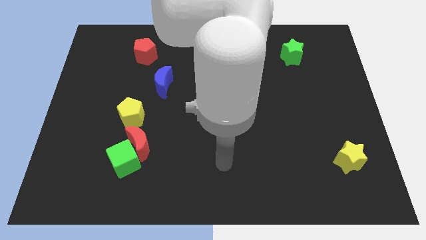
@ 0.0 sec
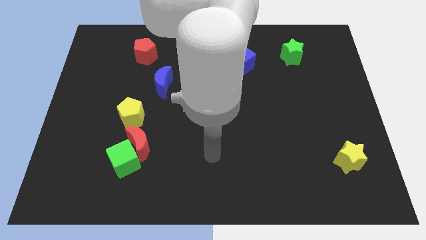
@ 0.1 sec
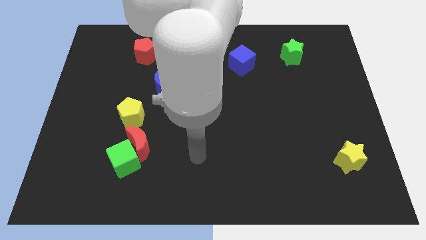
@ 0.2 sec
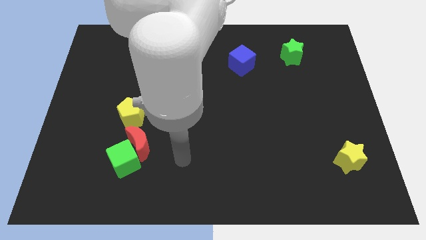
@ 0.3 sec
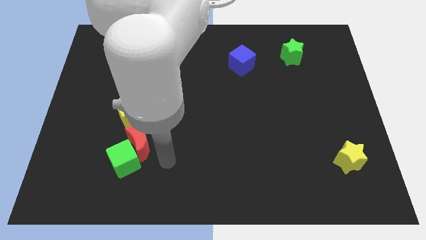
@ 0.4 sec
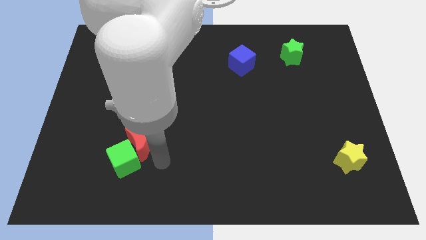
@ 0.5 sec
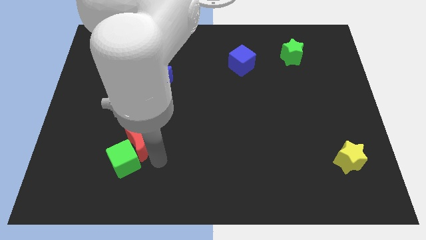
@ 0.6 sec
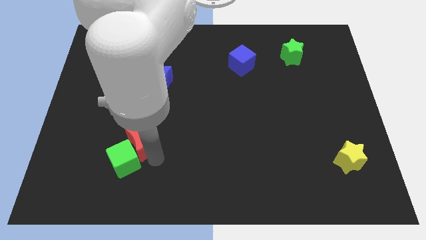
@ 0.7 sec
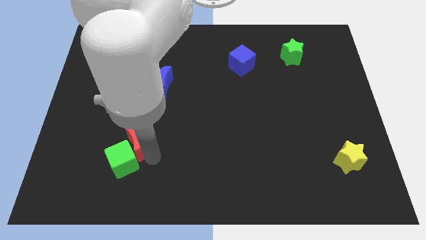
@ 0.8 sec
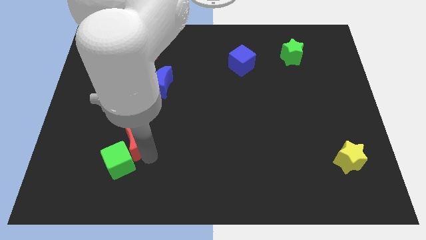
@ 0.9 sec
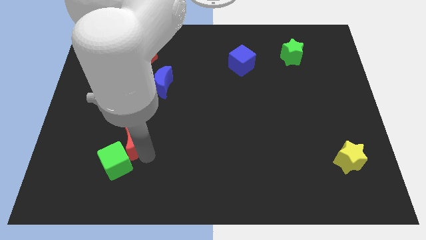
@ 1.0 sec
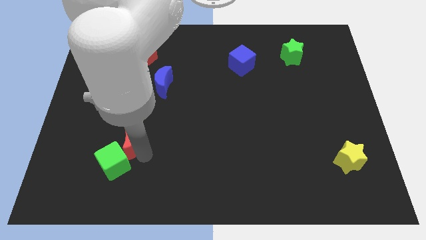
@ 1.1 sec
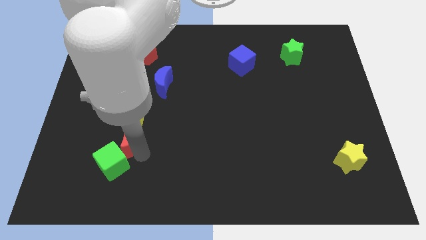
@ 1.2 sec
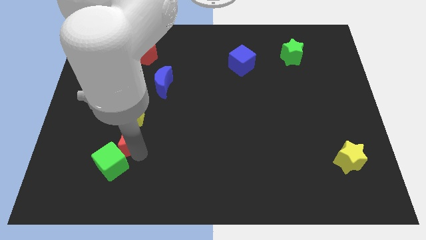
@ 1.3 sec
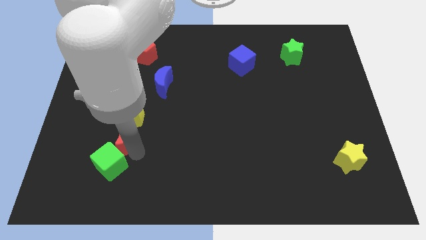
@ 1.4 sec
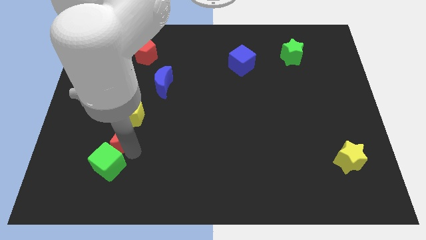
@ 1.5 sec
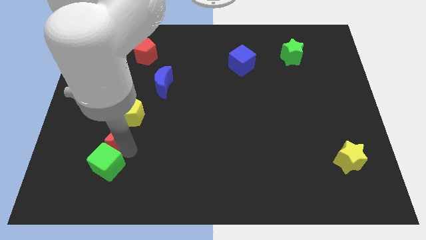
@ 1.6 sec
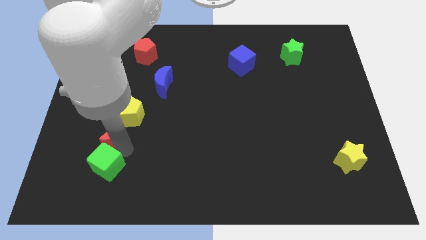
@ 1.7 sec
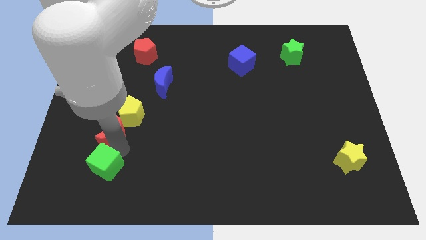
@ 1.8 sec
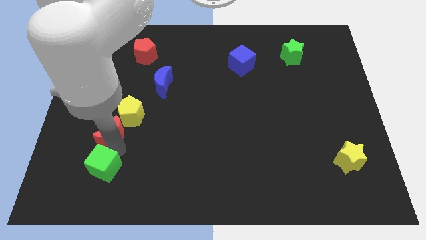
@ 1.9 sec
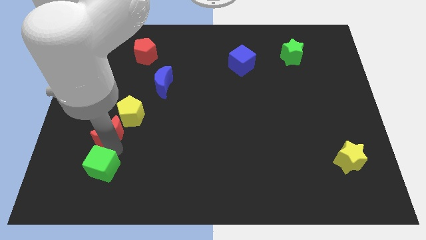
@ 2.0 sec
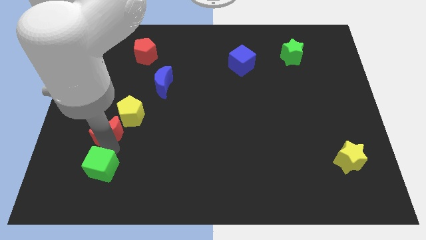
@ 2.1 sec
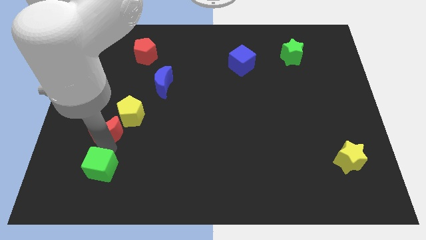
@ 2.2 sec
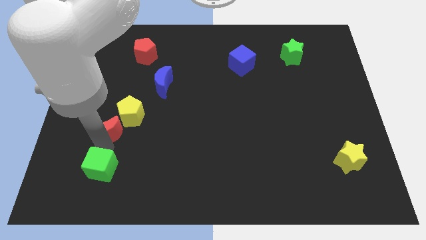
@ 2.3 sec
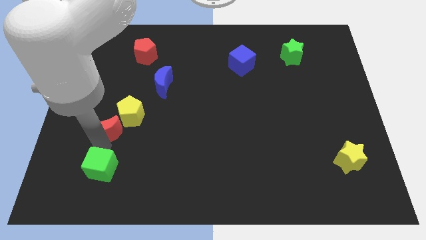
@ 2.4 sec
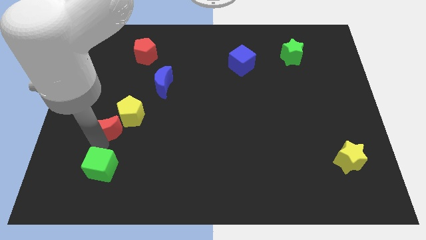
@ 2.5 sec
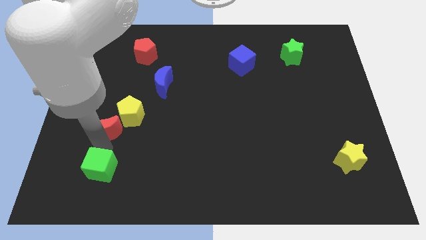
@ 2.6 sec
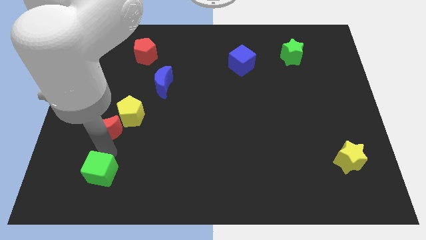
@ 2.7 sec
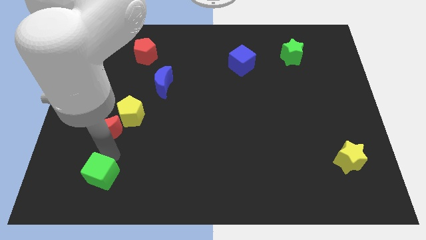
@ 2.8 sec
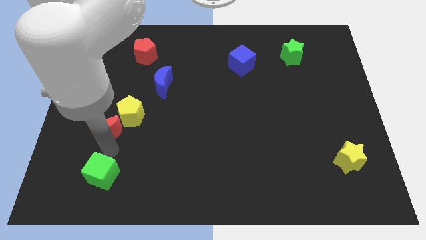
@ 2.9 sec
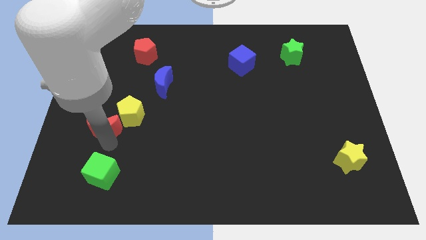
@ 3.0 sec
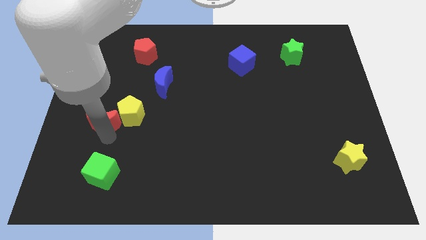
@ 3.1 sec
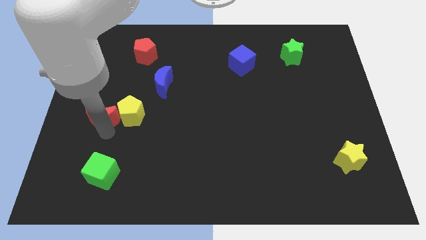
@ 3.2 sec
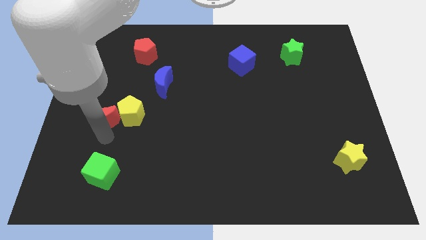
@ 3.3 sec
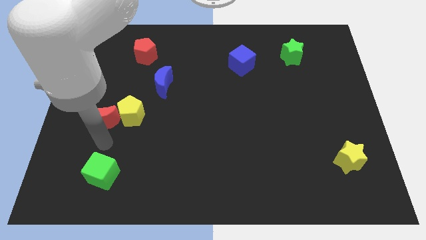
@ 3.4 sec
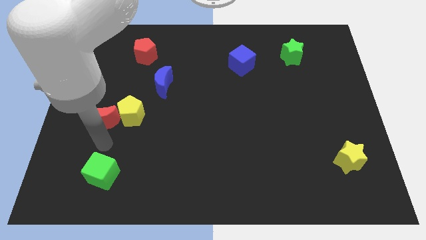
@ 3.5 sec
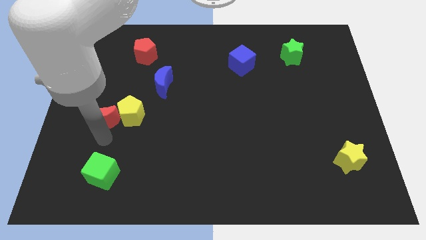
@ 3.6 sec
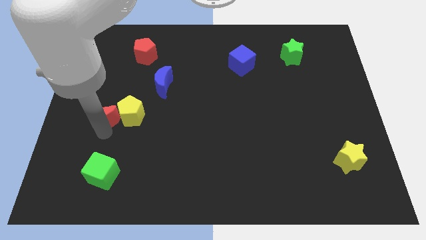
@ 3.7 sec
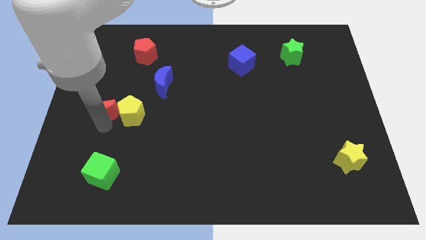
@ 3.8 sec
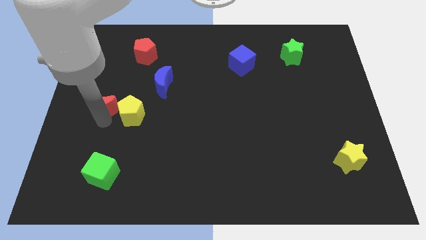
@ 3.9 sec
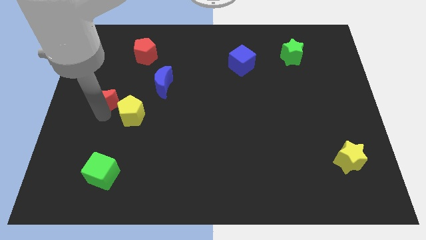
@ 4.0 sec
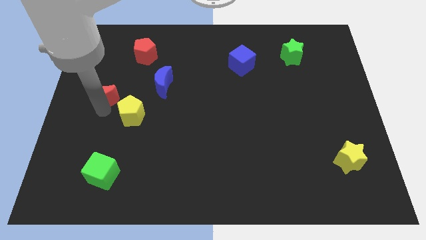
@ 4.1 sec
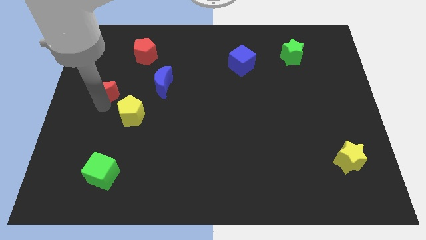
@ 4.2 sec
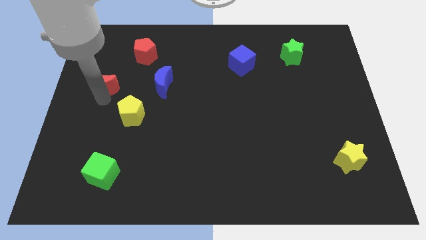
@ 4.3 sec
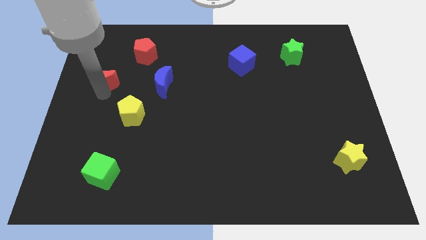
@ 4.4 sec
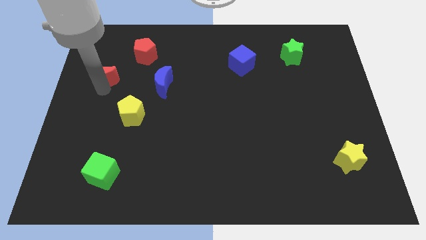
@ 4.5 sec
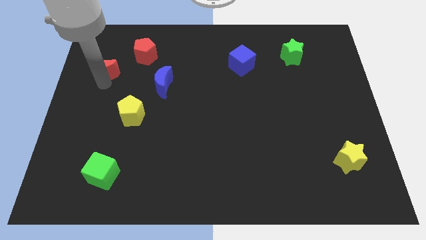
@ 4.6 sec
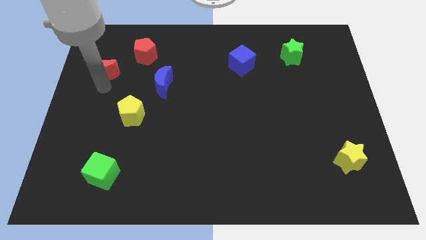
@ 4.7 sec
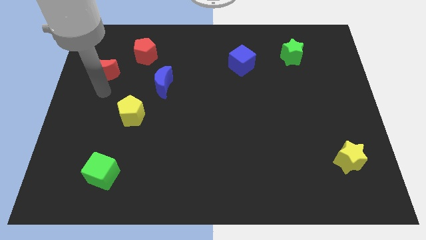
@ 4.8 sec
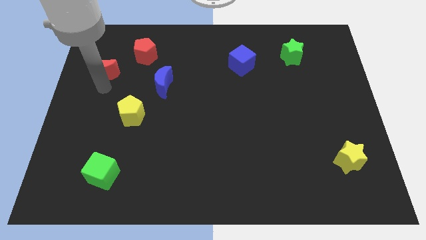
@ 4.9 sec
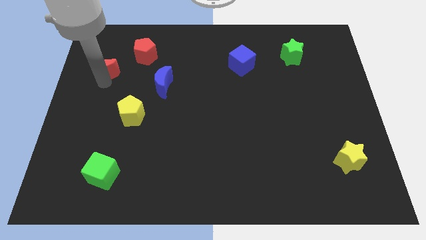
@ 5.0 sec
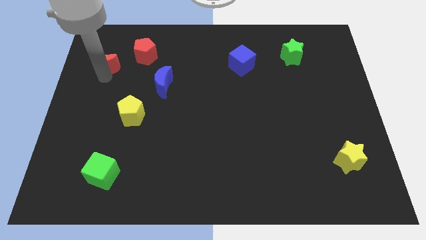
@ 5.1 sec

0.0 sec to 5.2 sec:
move the red moon just left of the red pentagon

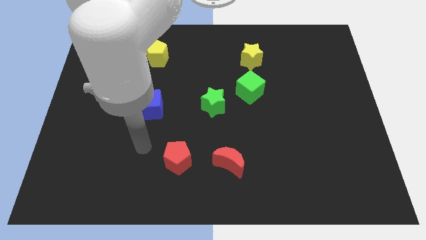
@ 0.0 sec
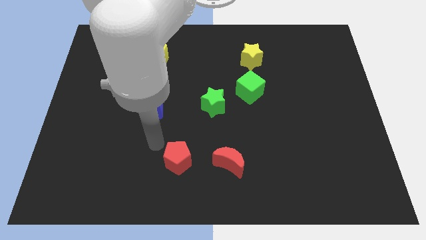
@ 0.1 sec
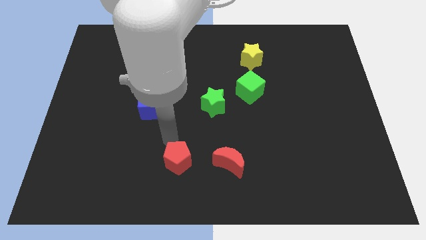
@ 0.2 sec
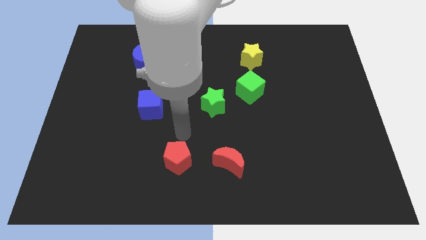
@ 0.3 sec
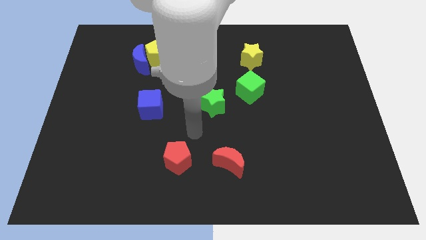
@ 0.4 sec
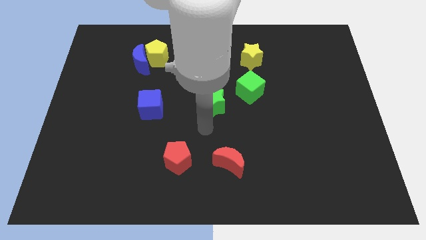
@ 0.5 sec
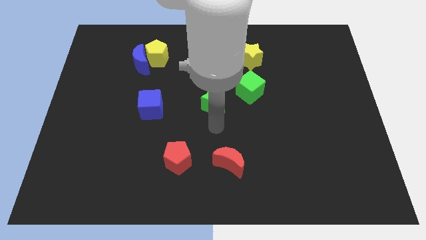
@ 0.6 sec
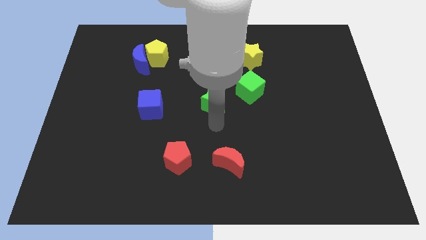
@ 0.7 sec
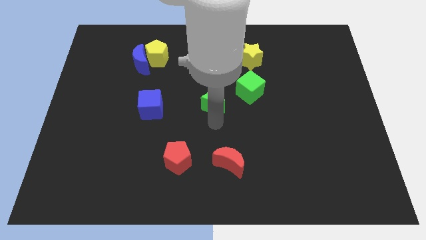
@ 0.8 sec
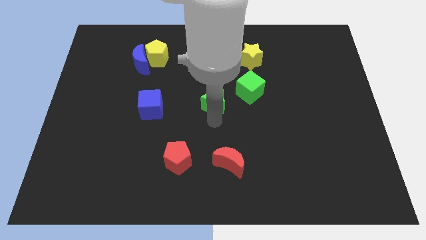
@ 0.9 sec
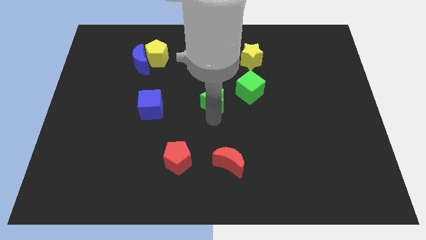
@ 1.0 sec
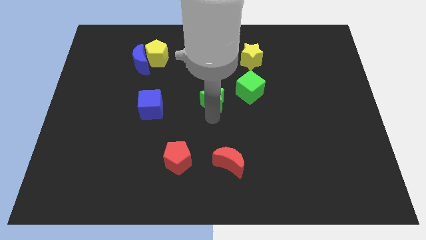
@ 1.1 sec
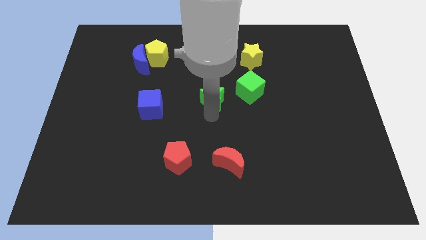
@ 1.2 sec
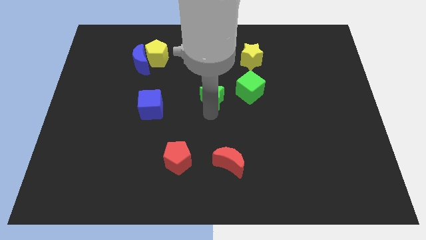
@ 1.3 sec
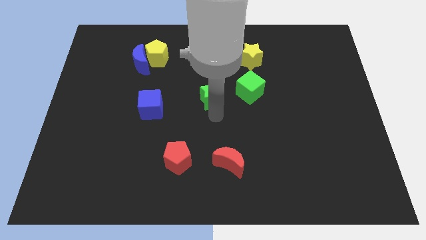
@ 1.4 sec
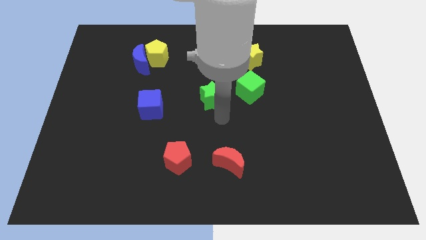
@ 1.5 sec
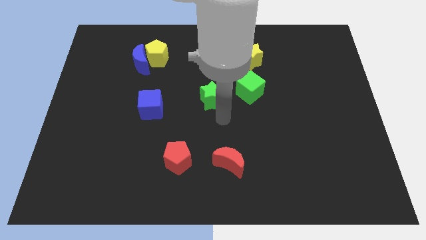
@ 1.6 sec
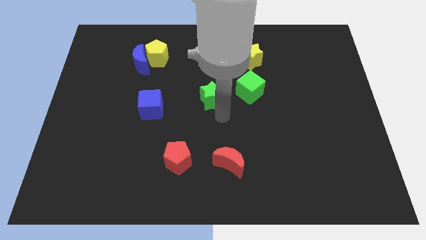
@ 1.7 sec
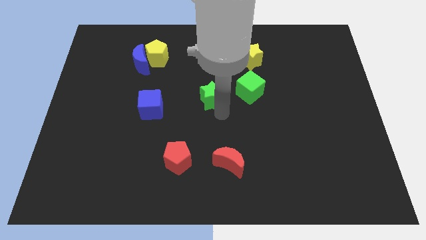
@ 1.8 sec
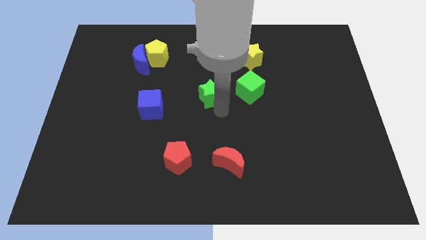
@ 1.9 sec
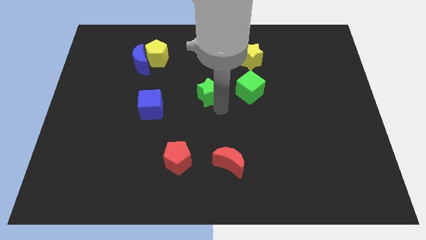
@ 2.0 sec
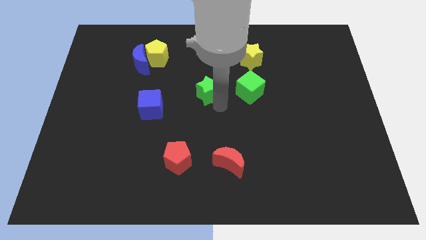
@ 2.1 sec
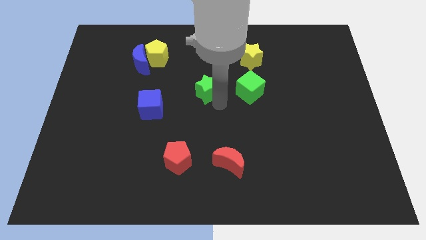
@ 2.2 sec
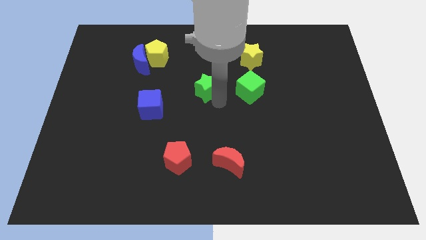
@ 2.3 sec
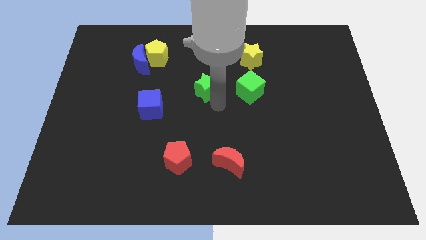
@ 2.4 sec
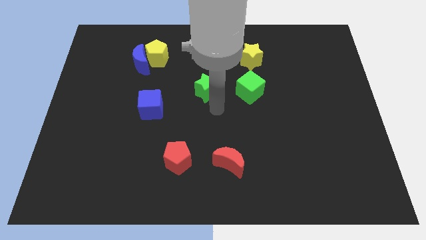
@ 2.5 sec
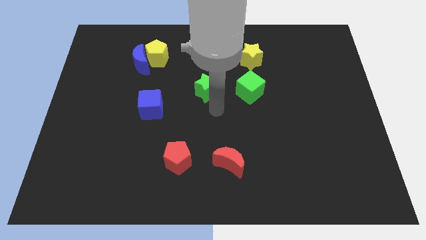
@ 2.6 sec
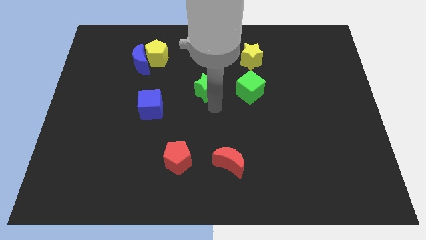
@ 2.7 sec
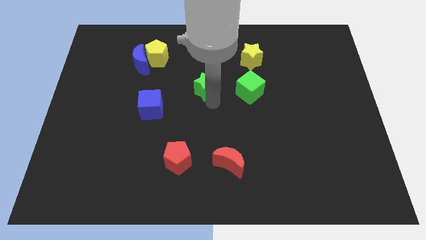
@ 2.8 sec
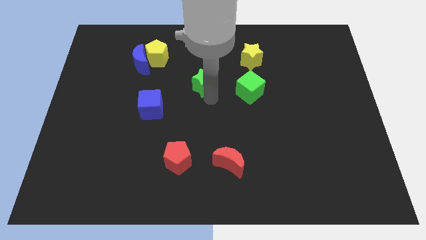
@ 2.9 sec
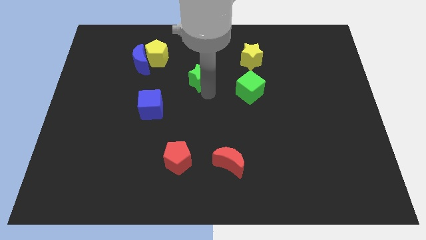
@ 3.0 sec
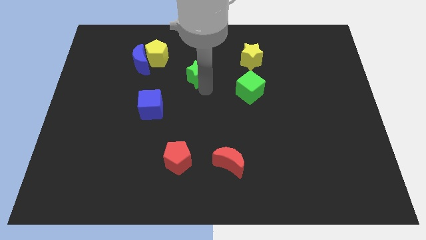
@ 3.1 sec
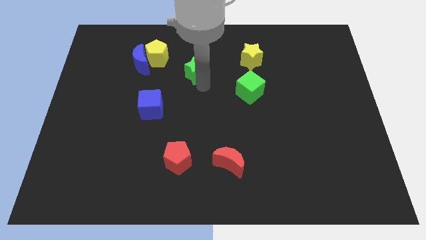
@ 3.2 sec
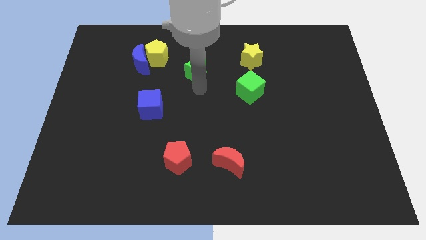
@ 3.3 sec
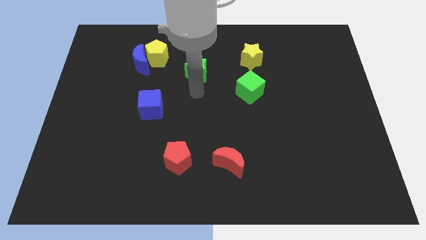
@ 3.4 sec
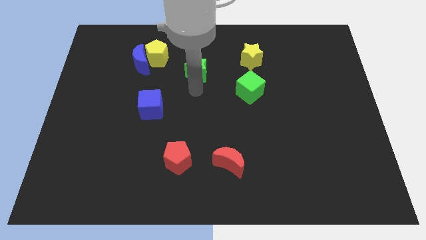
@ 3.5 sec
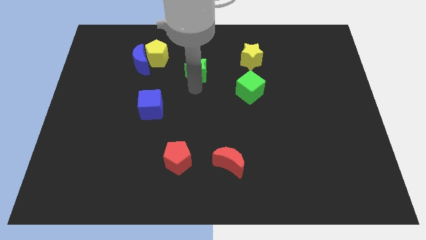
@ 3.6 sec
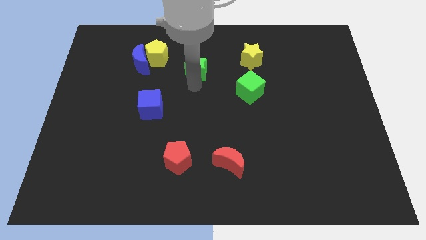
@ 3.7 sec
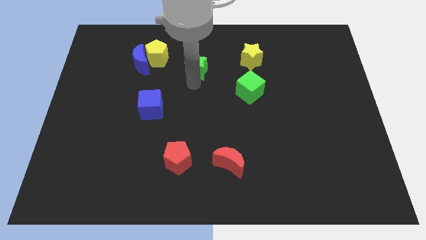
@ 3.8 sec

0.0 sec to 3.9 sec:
push the green star just right of the yellow pentagon
